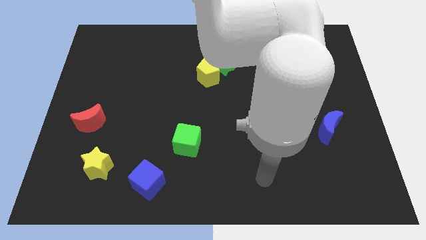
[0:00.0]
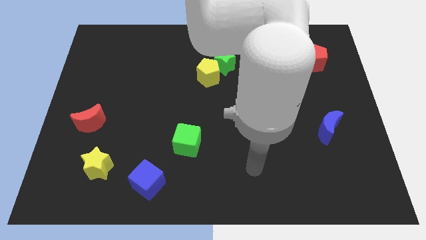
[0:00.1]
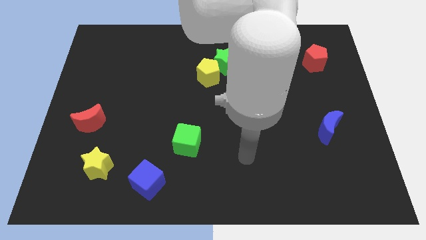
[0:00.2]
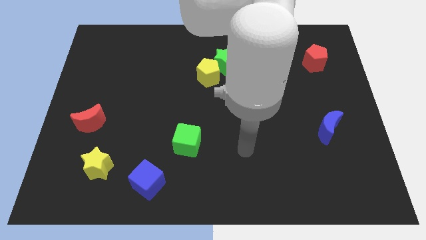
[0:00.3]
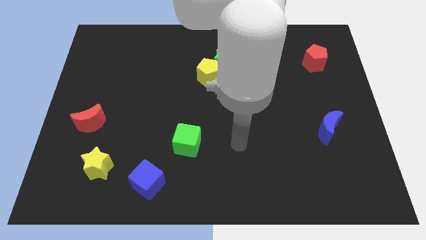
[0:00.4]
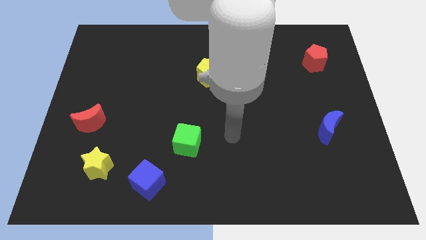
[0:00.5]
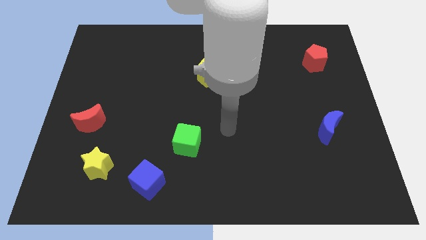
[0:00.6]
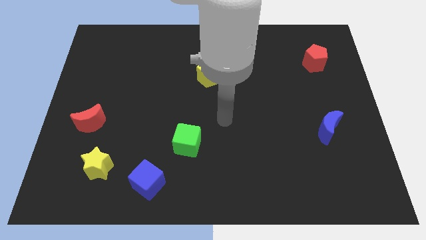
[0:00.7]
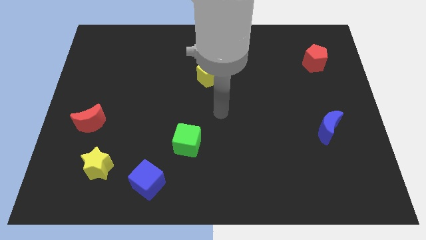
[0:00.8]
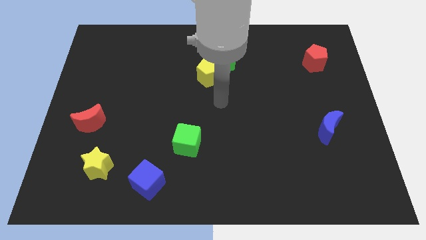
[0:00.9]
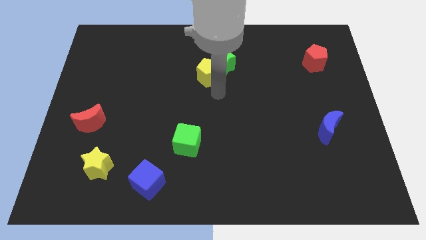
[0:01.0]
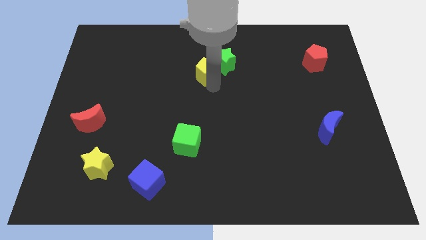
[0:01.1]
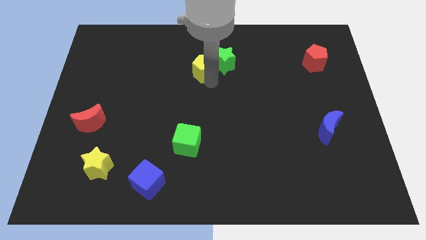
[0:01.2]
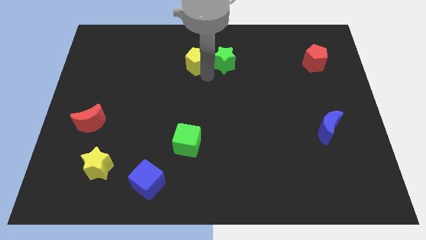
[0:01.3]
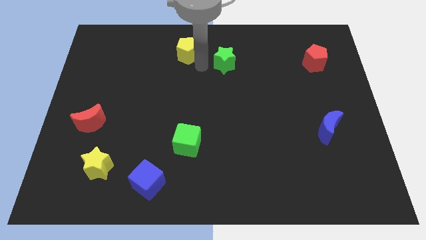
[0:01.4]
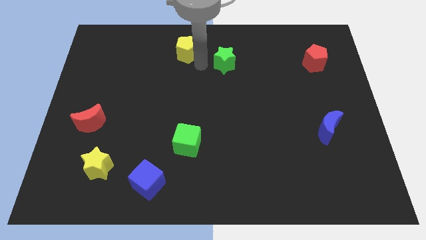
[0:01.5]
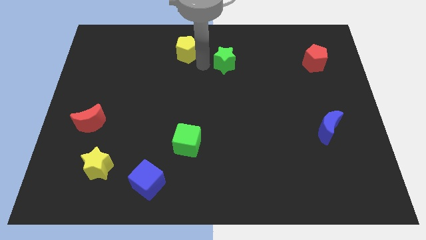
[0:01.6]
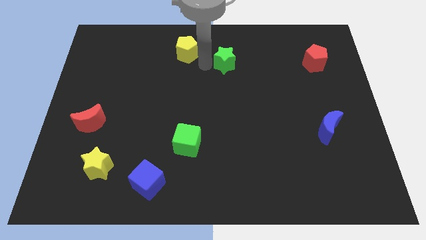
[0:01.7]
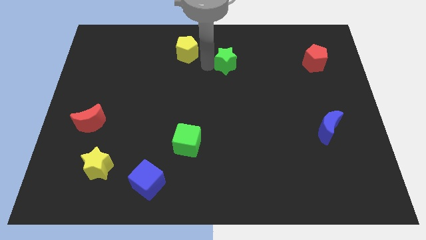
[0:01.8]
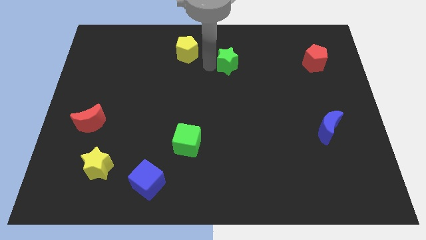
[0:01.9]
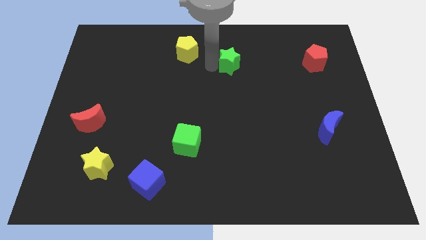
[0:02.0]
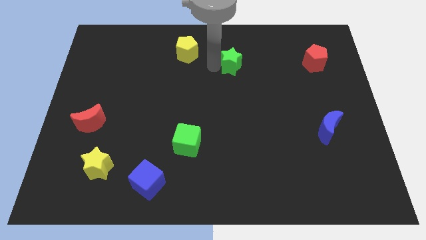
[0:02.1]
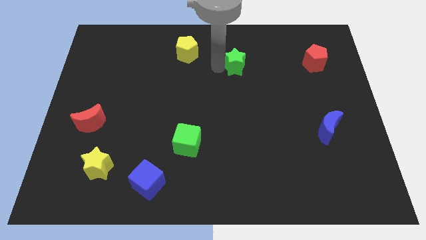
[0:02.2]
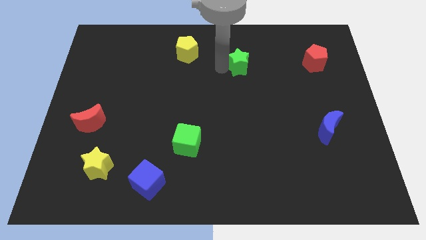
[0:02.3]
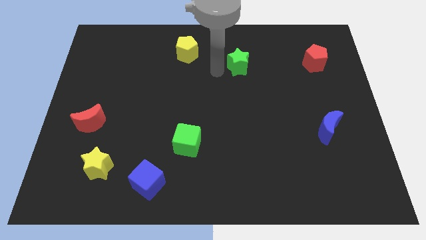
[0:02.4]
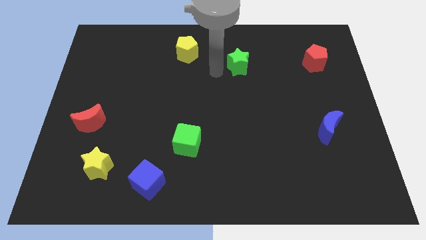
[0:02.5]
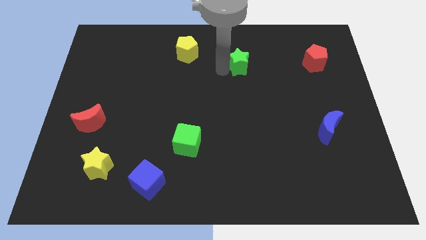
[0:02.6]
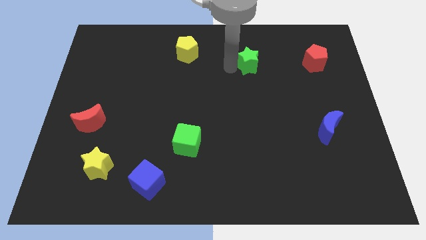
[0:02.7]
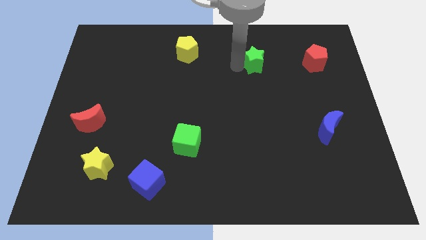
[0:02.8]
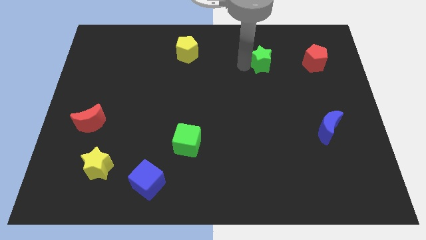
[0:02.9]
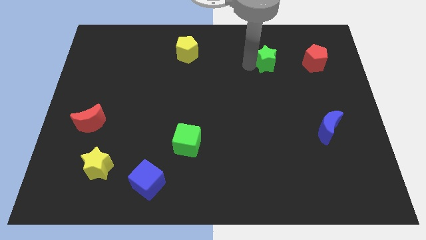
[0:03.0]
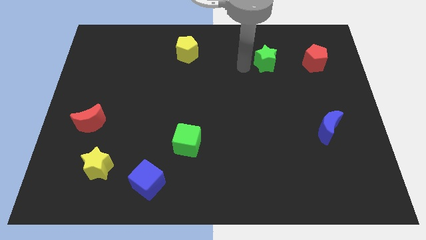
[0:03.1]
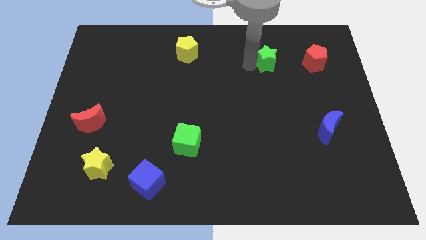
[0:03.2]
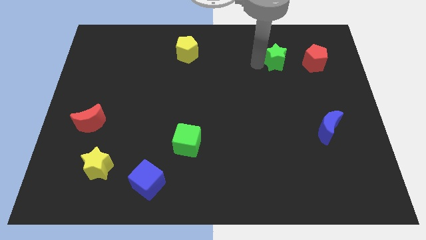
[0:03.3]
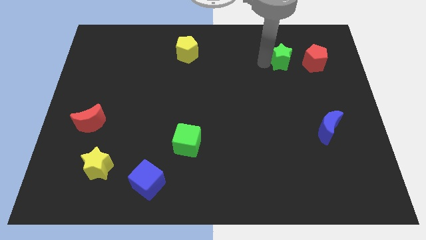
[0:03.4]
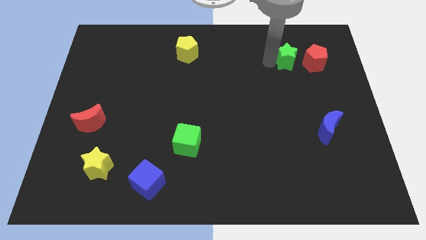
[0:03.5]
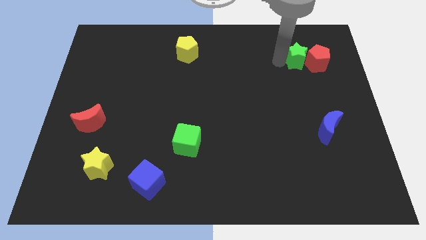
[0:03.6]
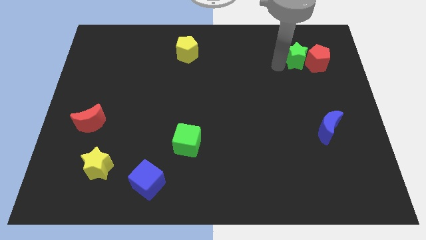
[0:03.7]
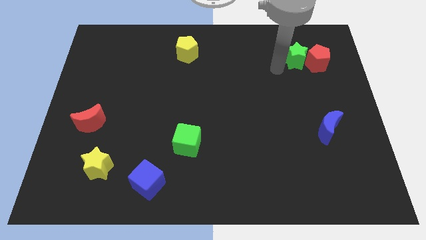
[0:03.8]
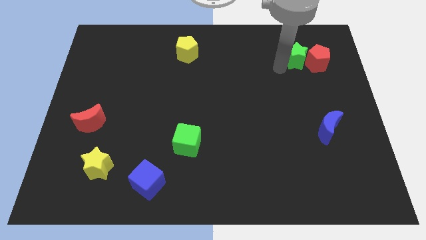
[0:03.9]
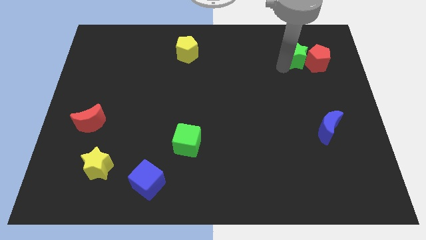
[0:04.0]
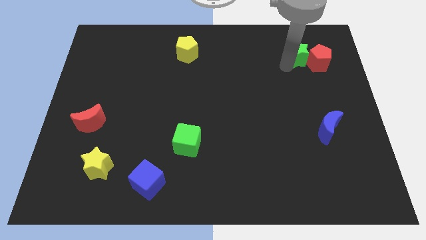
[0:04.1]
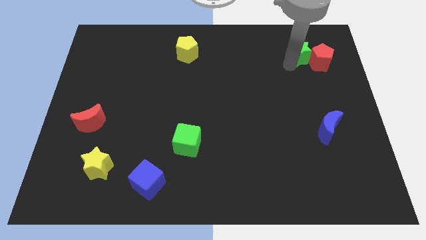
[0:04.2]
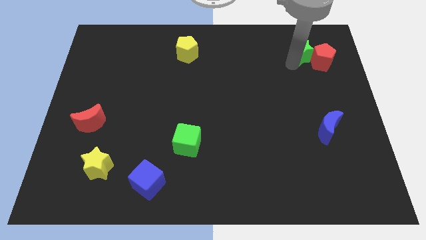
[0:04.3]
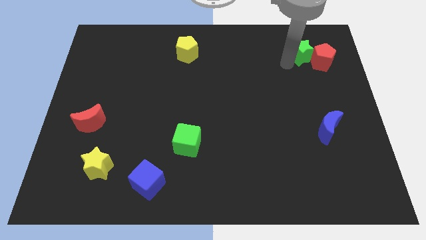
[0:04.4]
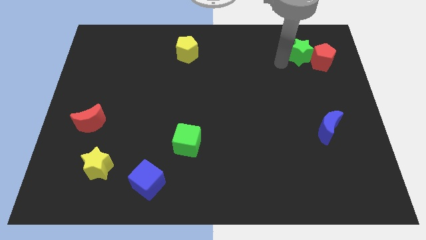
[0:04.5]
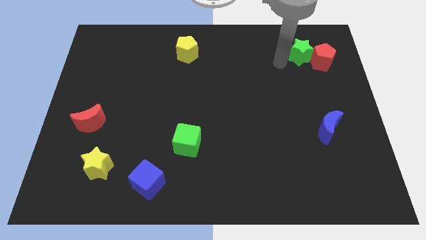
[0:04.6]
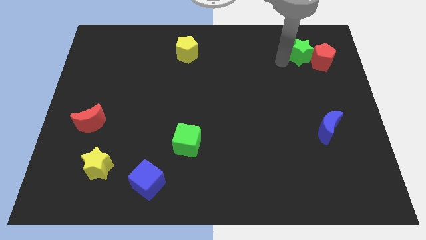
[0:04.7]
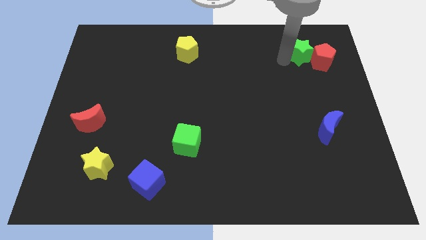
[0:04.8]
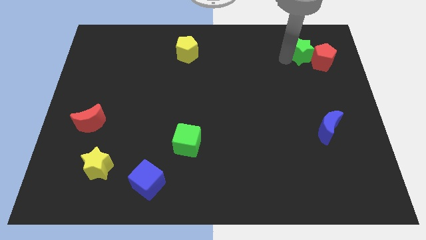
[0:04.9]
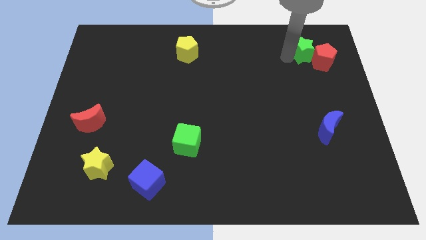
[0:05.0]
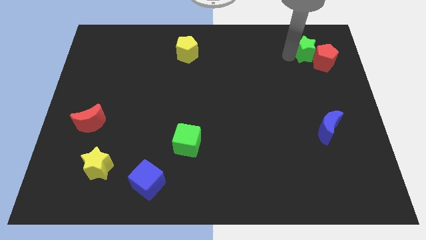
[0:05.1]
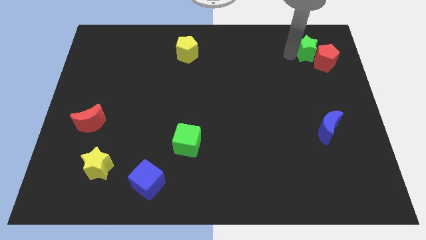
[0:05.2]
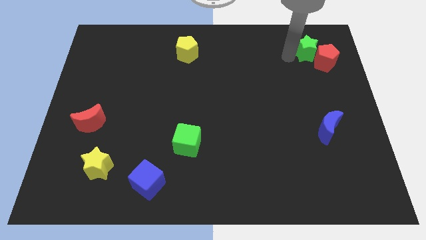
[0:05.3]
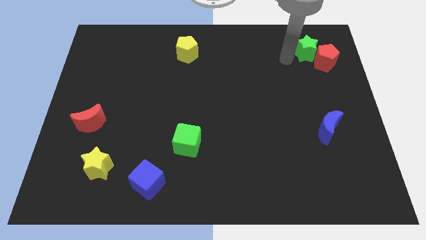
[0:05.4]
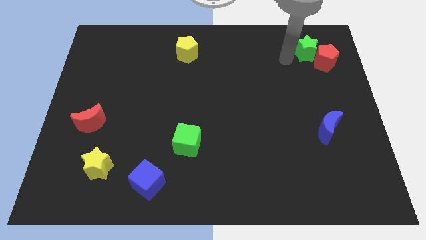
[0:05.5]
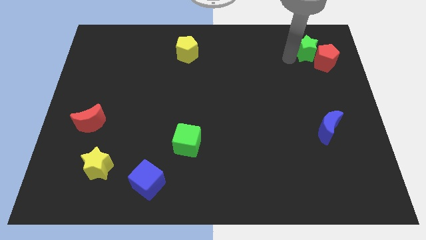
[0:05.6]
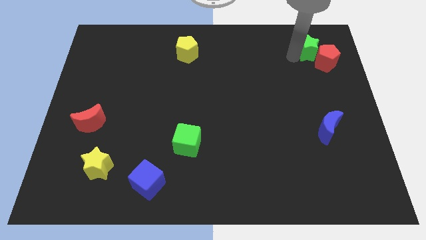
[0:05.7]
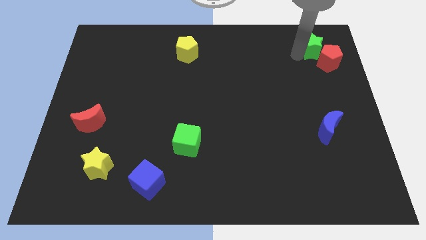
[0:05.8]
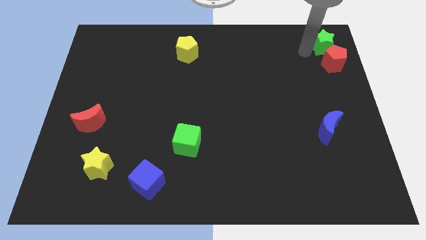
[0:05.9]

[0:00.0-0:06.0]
put the green star to the upper right corner
